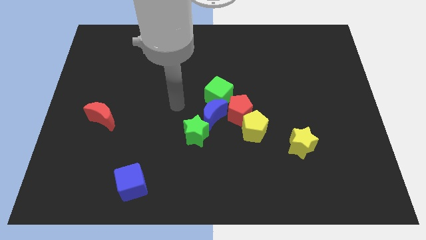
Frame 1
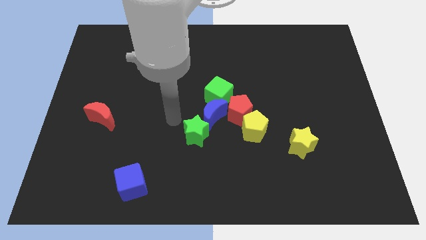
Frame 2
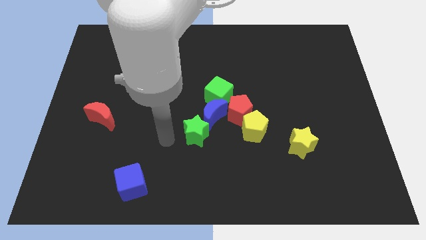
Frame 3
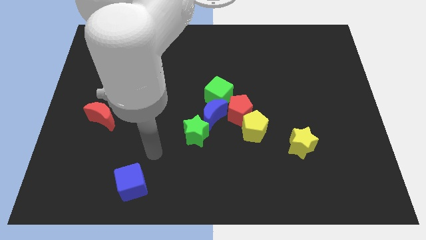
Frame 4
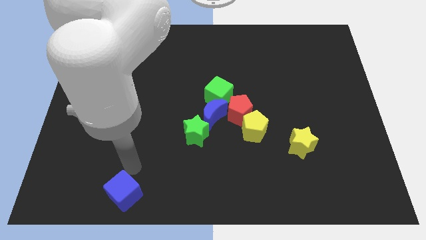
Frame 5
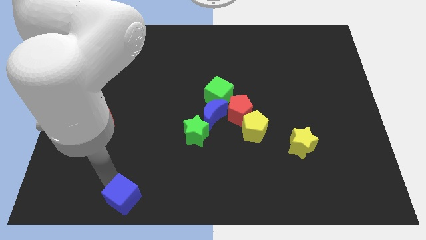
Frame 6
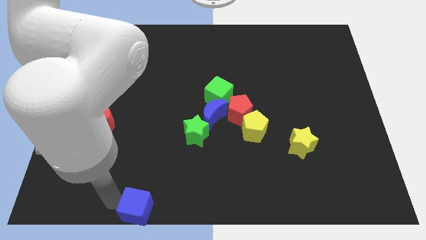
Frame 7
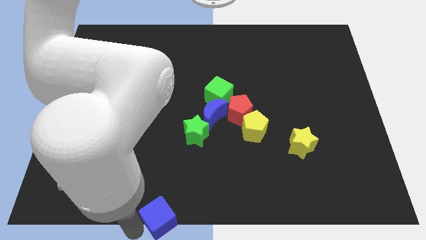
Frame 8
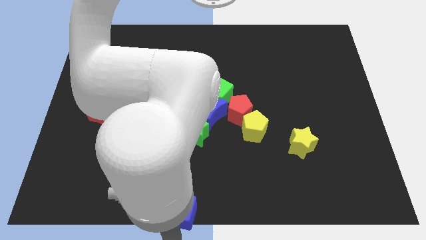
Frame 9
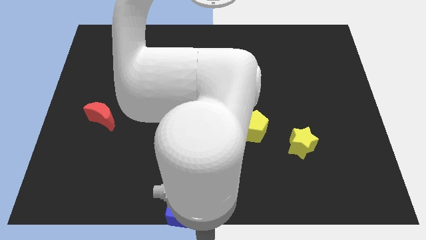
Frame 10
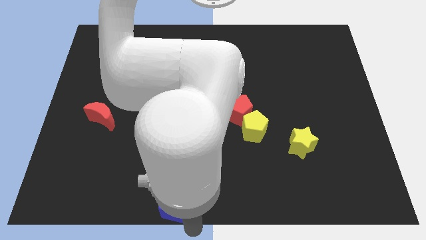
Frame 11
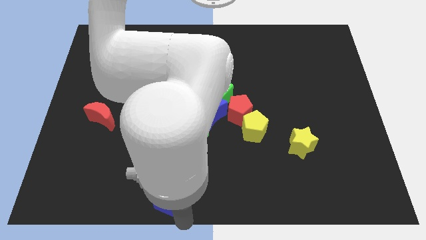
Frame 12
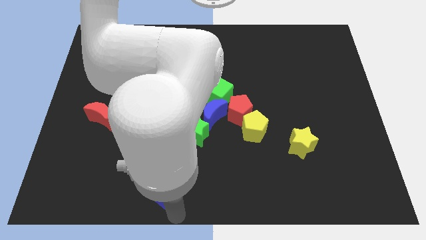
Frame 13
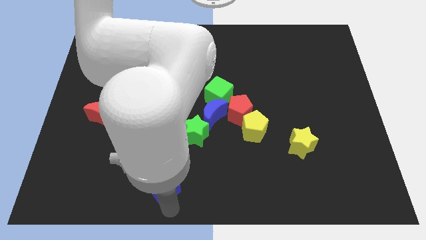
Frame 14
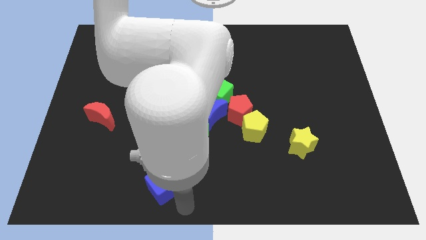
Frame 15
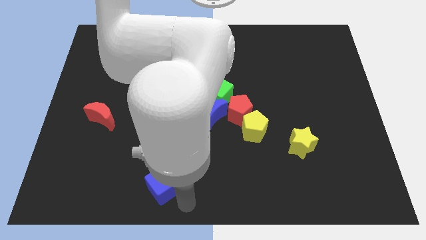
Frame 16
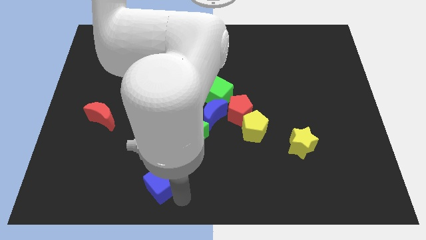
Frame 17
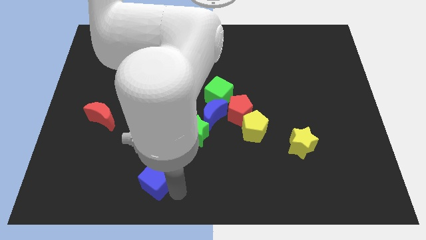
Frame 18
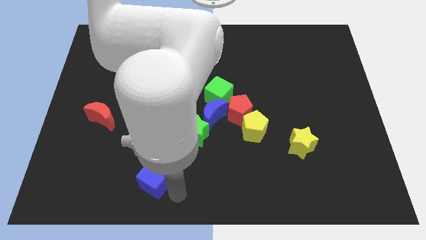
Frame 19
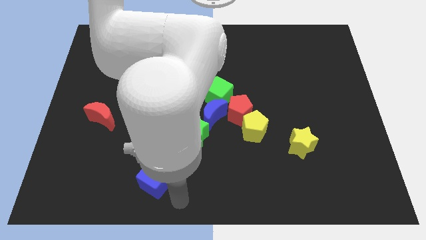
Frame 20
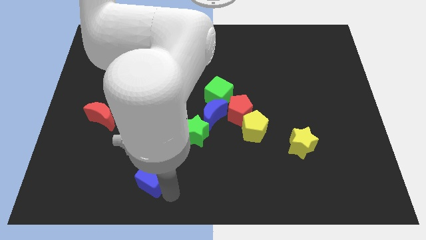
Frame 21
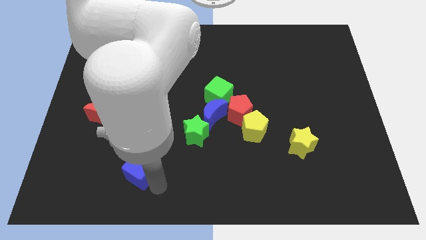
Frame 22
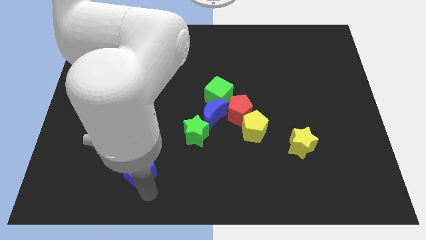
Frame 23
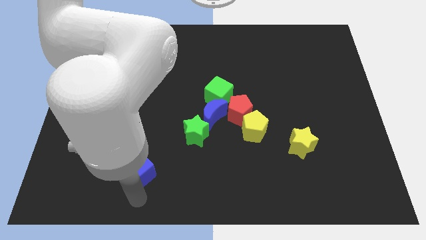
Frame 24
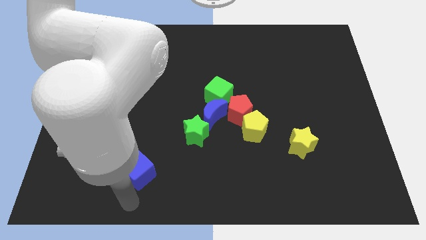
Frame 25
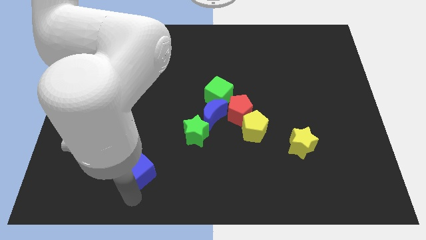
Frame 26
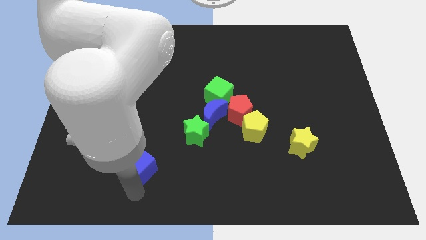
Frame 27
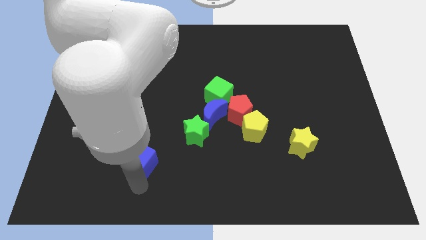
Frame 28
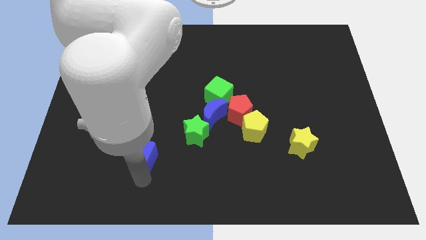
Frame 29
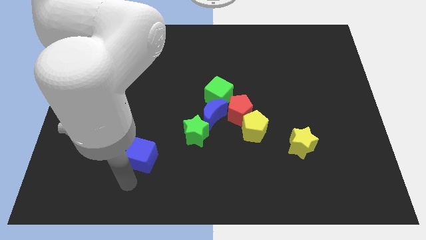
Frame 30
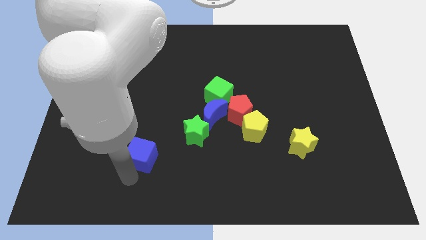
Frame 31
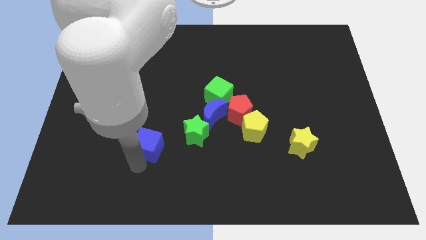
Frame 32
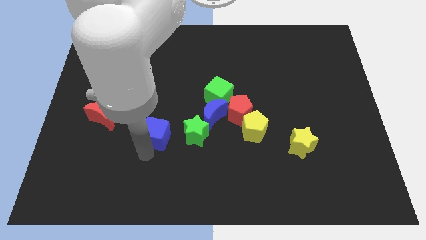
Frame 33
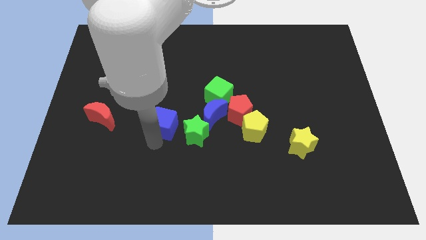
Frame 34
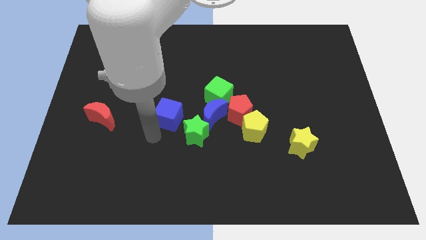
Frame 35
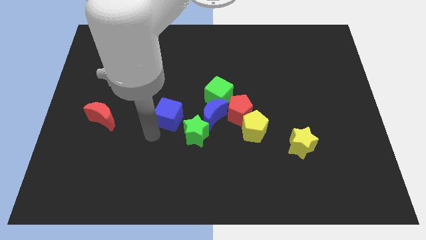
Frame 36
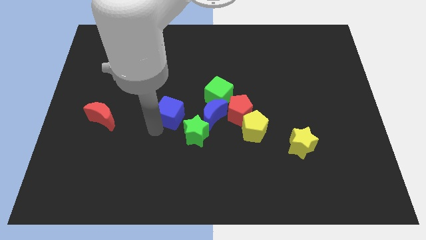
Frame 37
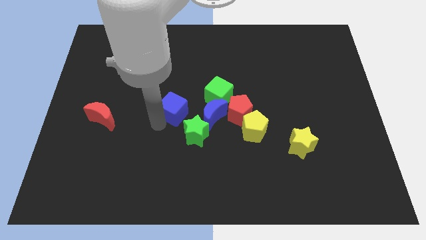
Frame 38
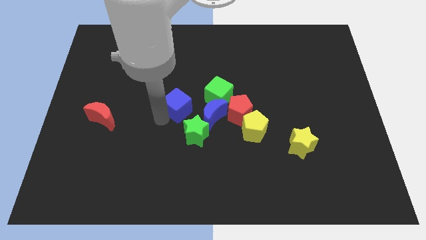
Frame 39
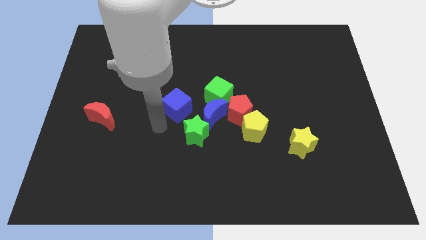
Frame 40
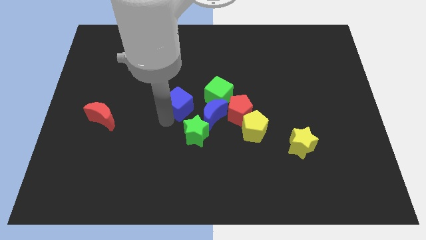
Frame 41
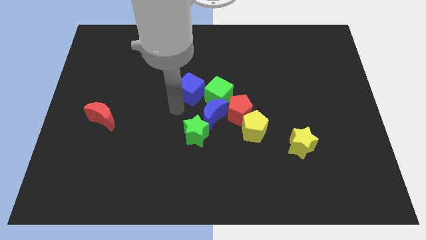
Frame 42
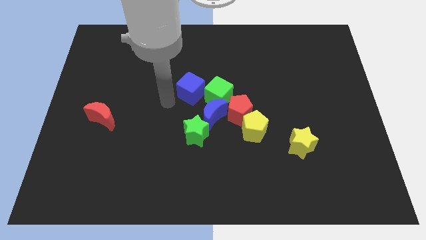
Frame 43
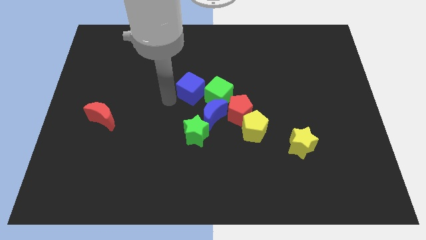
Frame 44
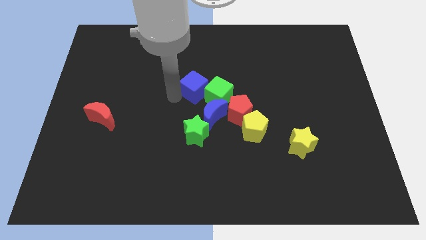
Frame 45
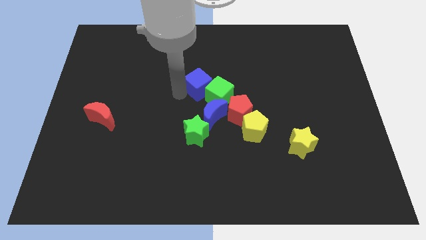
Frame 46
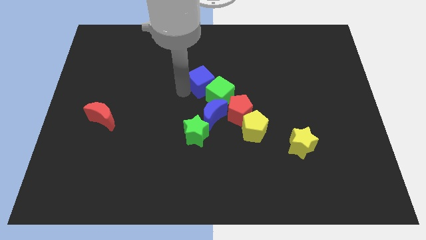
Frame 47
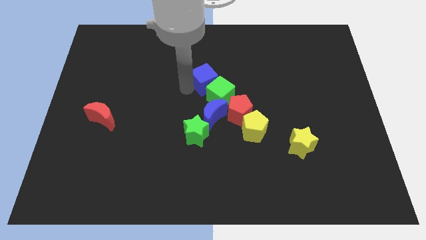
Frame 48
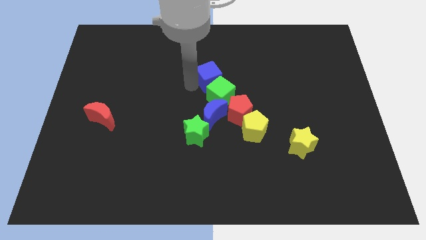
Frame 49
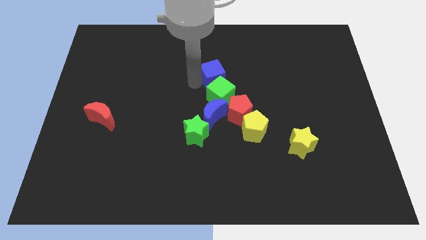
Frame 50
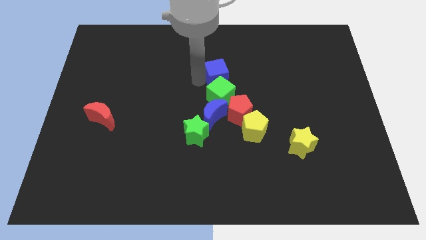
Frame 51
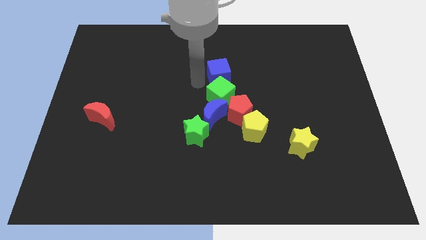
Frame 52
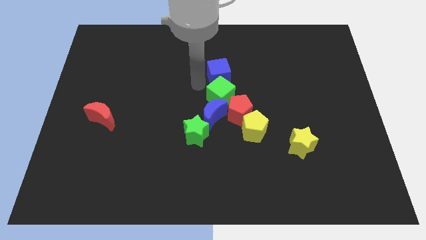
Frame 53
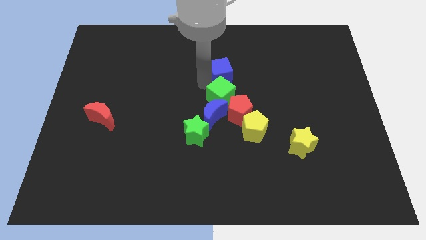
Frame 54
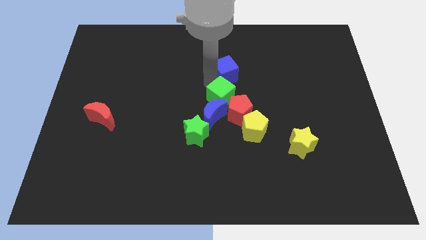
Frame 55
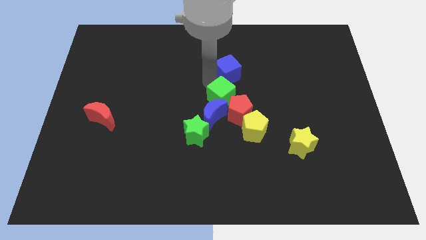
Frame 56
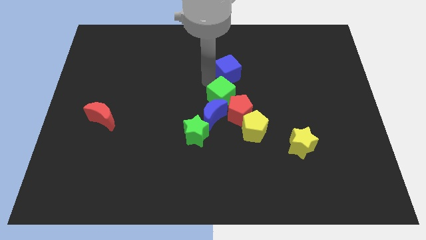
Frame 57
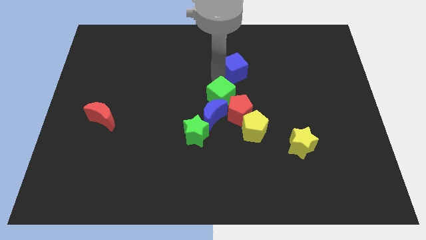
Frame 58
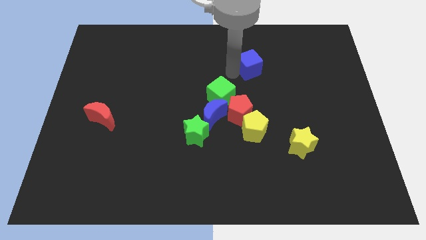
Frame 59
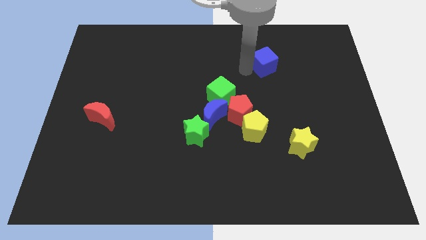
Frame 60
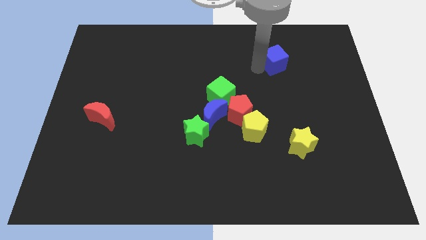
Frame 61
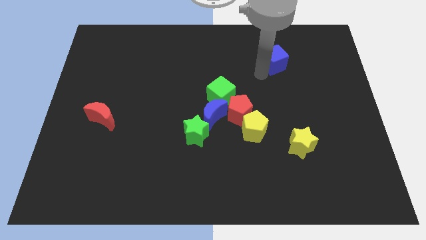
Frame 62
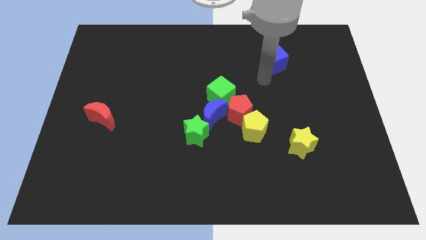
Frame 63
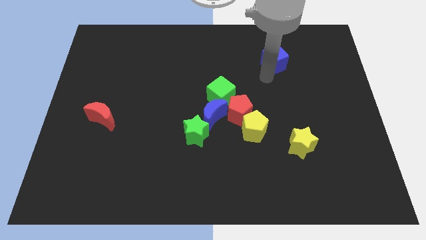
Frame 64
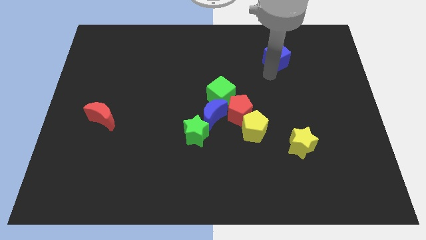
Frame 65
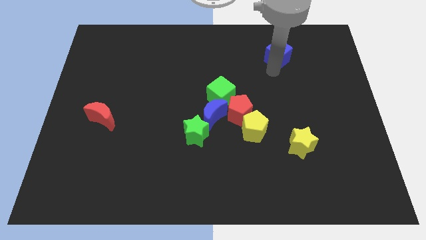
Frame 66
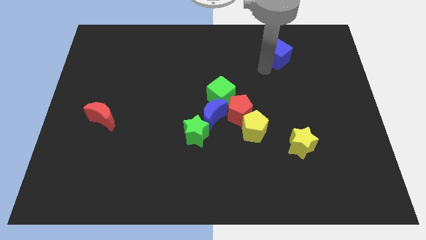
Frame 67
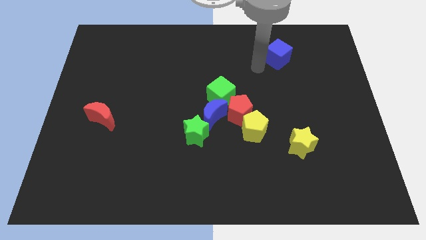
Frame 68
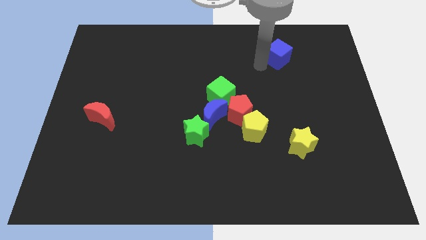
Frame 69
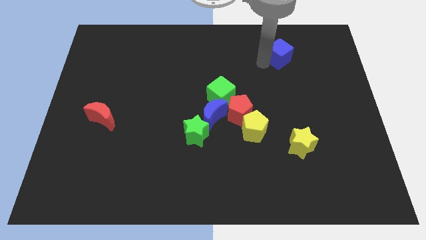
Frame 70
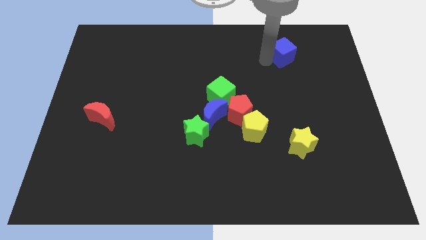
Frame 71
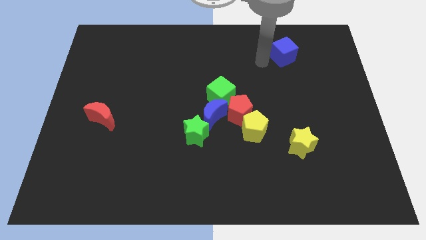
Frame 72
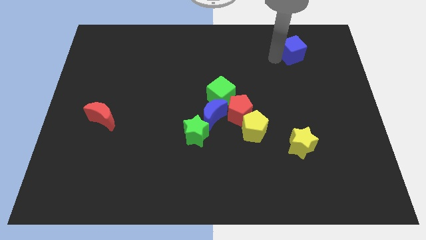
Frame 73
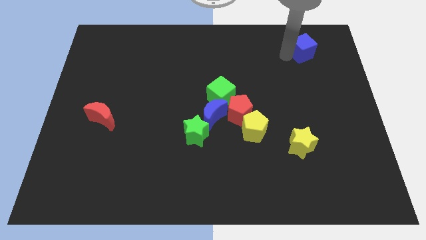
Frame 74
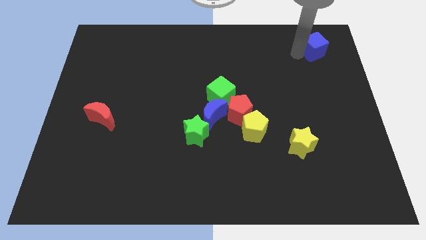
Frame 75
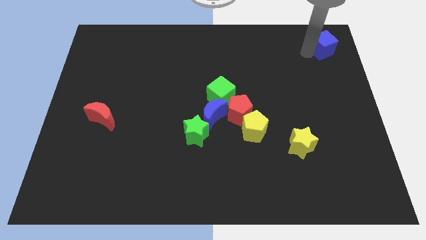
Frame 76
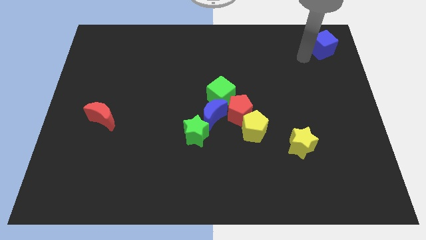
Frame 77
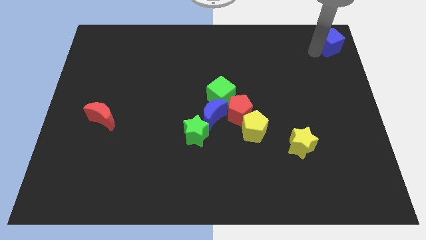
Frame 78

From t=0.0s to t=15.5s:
put the blue cube to the top right
